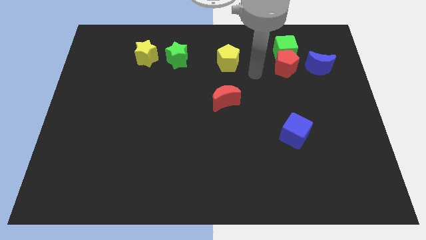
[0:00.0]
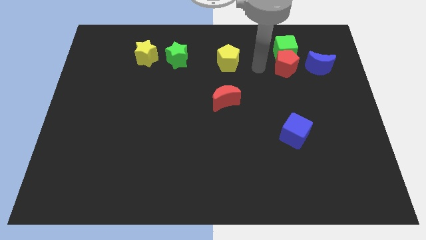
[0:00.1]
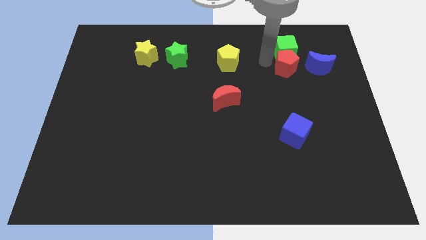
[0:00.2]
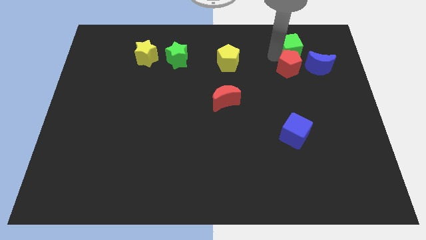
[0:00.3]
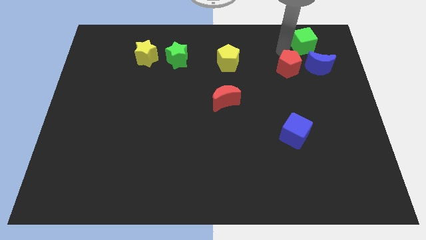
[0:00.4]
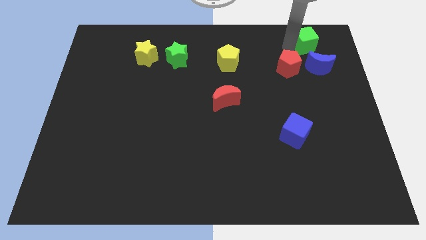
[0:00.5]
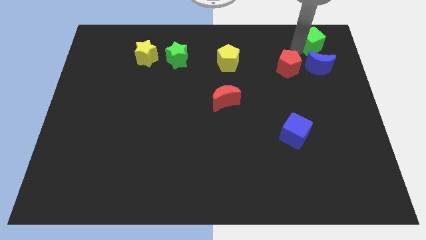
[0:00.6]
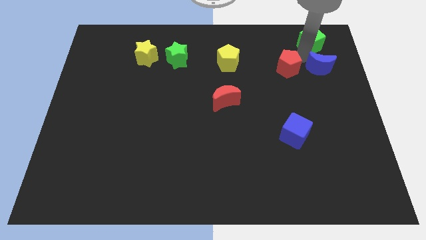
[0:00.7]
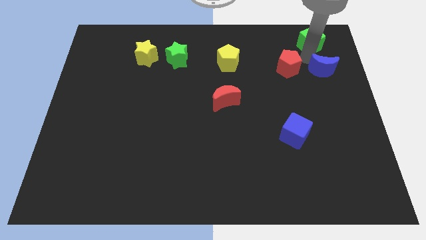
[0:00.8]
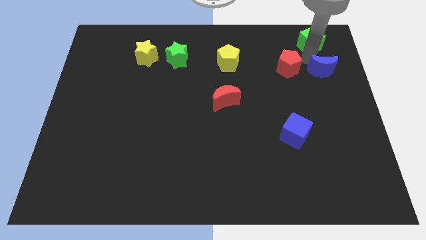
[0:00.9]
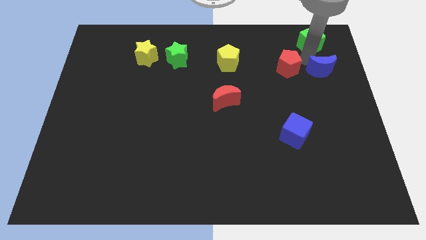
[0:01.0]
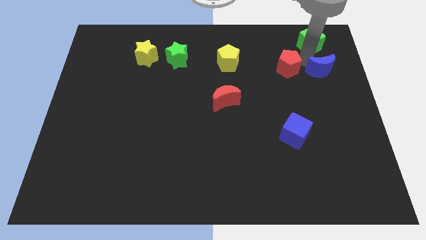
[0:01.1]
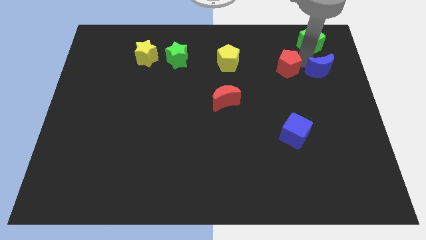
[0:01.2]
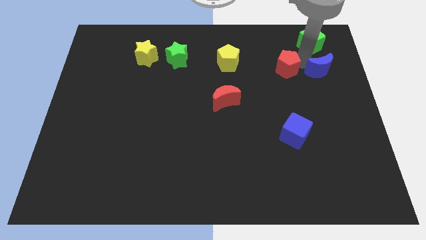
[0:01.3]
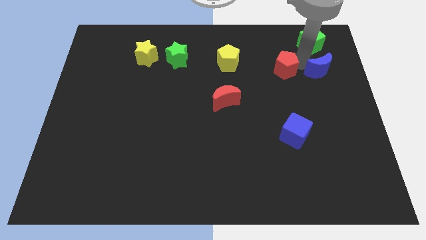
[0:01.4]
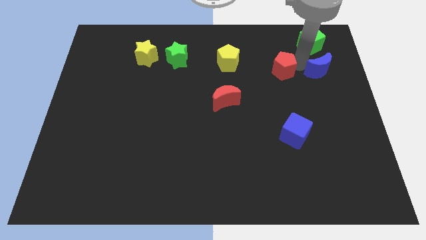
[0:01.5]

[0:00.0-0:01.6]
separate the red pentagon from the green cube and blue moon

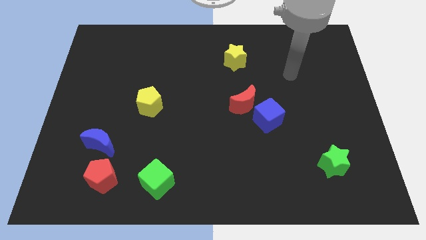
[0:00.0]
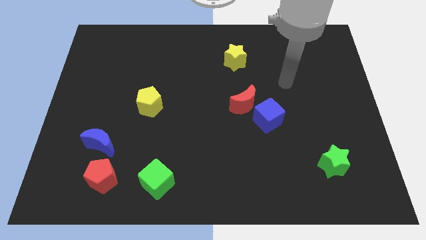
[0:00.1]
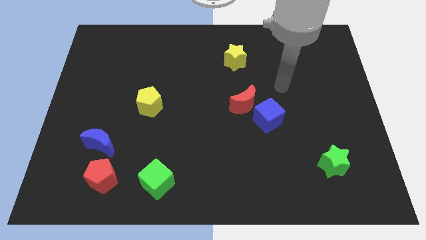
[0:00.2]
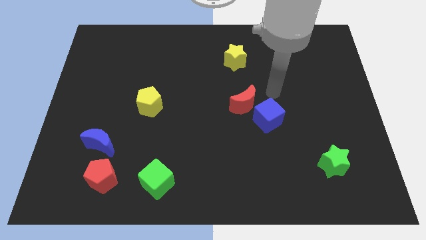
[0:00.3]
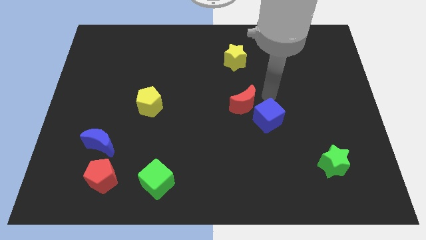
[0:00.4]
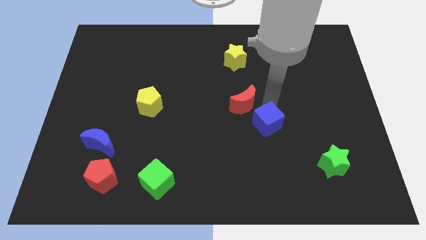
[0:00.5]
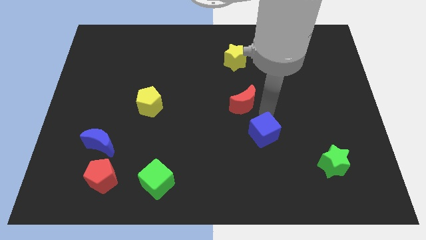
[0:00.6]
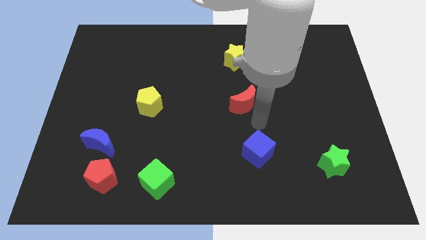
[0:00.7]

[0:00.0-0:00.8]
pull the red moon apart from the blue cube

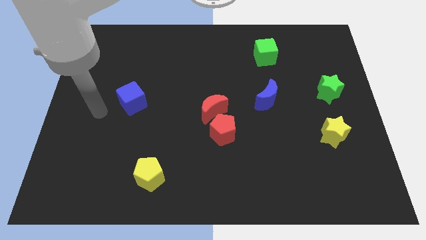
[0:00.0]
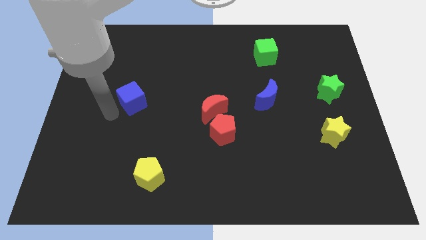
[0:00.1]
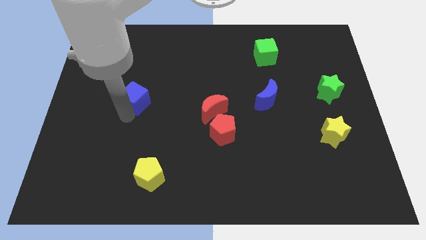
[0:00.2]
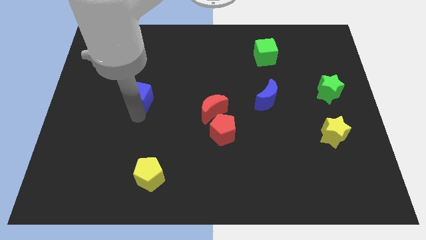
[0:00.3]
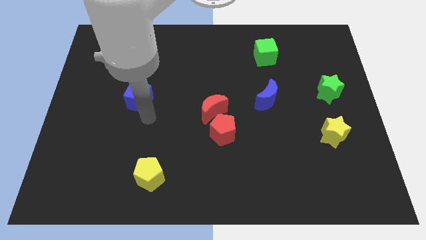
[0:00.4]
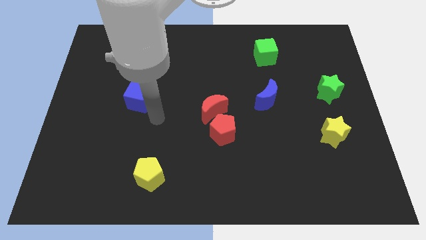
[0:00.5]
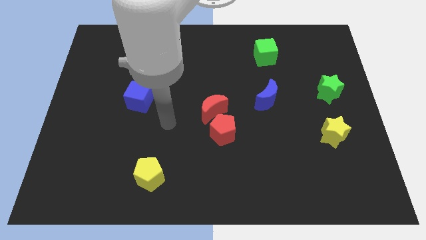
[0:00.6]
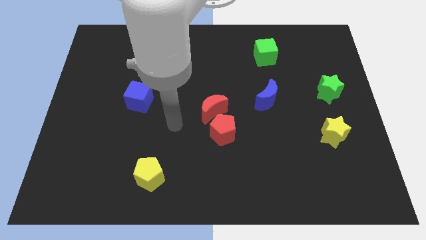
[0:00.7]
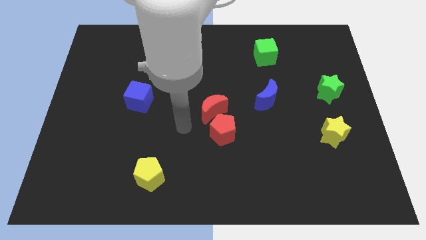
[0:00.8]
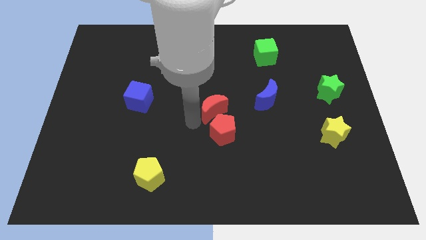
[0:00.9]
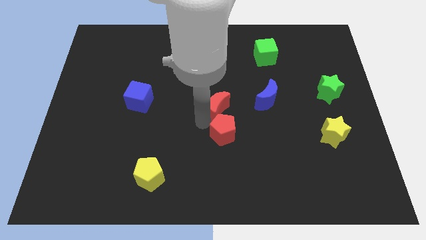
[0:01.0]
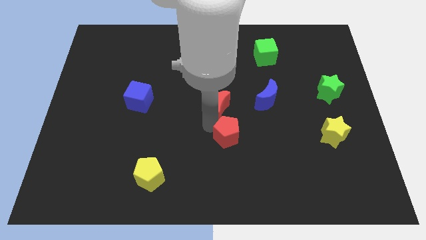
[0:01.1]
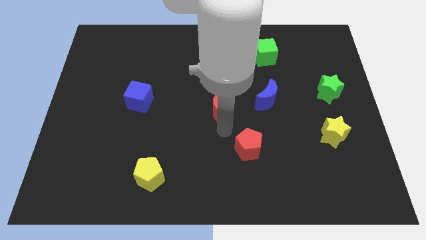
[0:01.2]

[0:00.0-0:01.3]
move the red moon away from the red pentagon

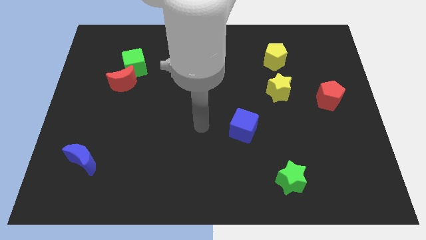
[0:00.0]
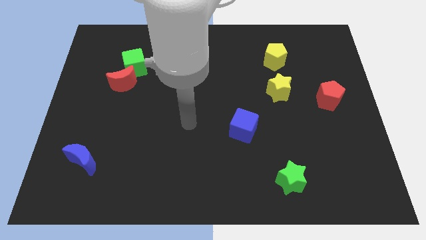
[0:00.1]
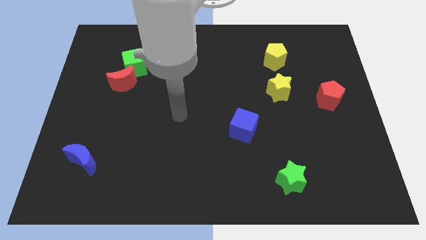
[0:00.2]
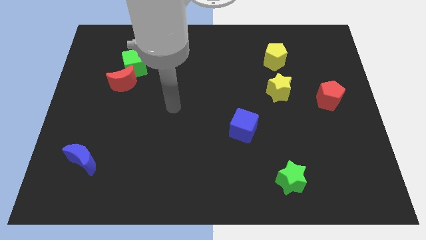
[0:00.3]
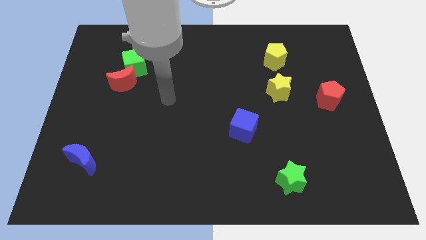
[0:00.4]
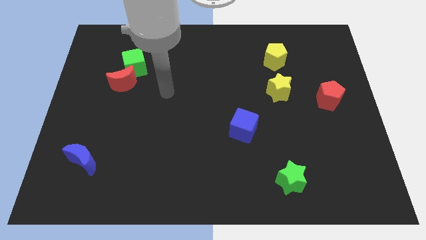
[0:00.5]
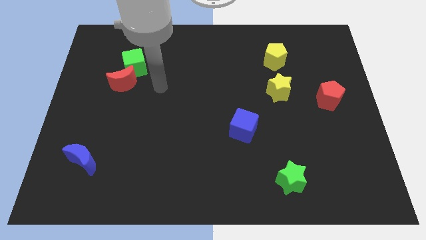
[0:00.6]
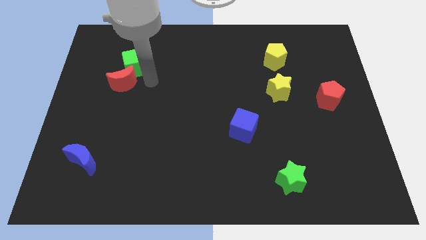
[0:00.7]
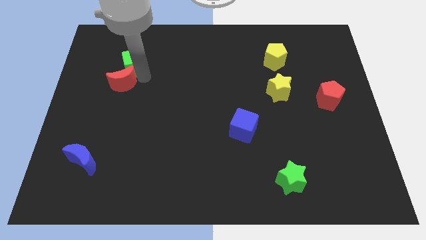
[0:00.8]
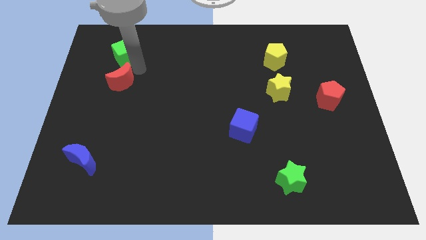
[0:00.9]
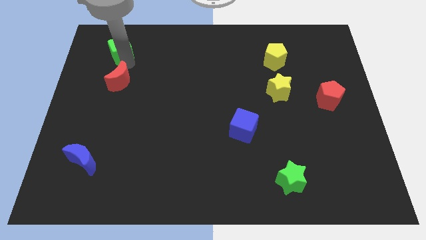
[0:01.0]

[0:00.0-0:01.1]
pull the red moon apart from the green cube

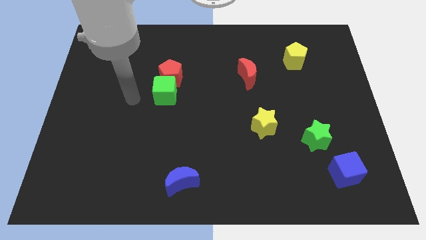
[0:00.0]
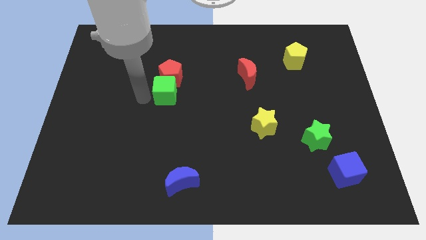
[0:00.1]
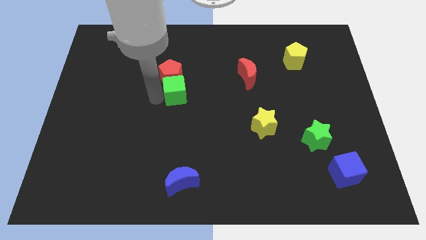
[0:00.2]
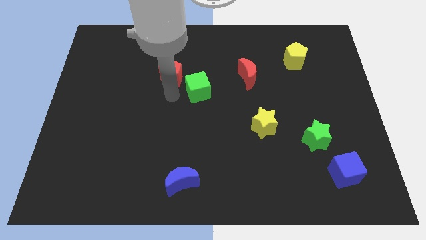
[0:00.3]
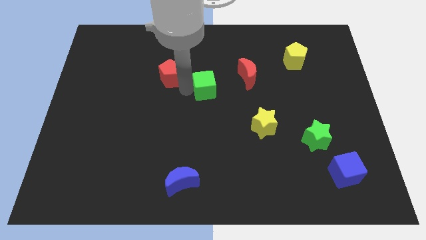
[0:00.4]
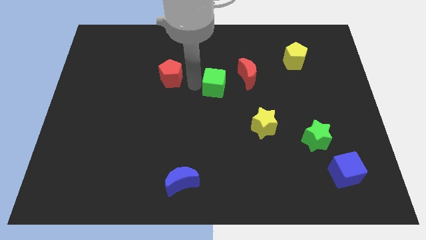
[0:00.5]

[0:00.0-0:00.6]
separate the red pentagon from the green cube

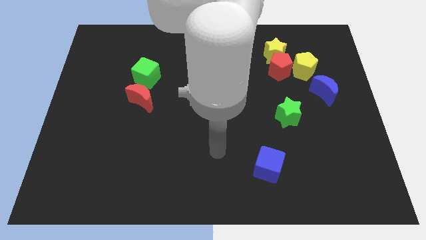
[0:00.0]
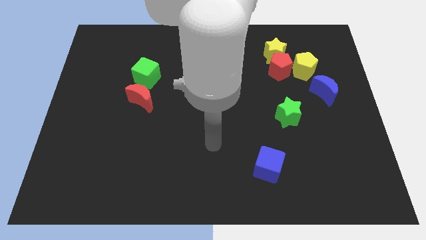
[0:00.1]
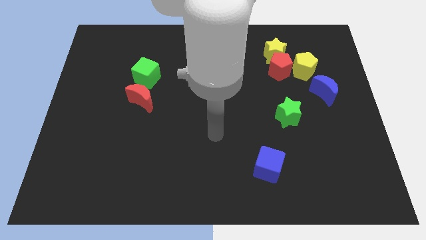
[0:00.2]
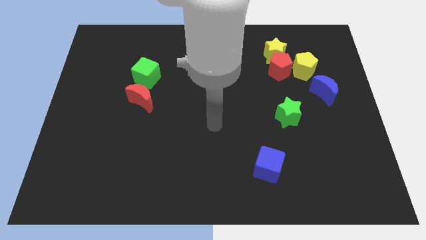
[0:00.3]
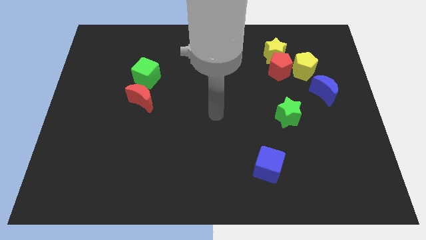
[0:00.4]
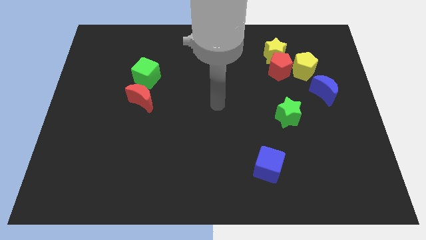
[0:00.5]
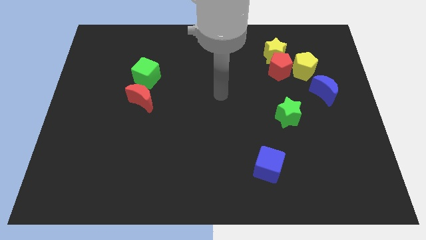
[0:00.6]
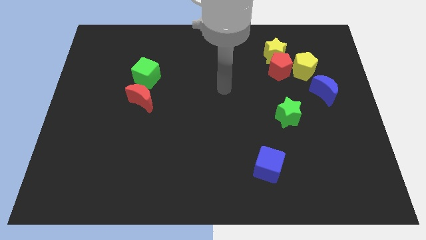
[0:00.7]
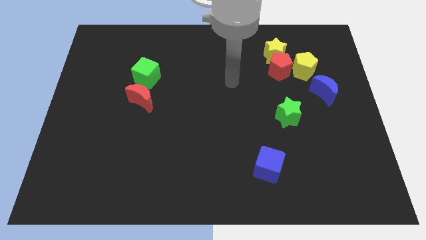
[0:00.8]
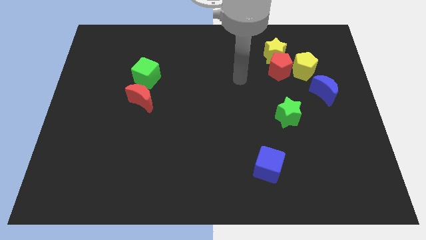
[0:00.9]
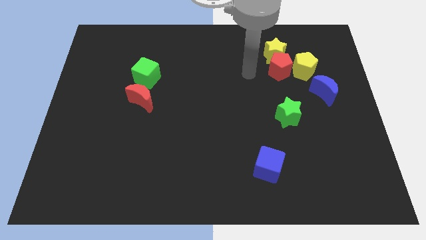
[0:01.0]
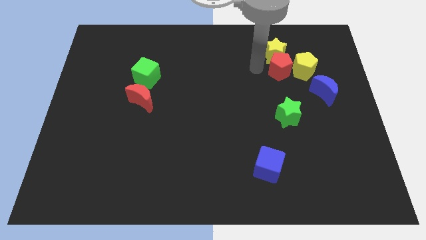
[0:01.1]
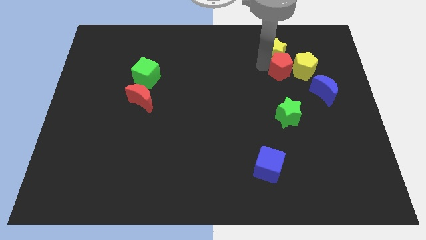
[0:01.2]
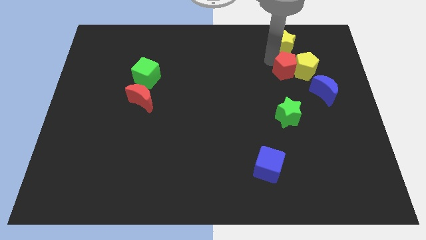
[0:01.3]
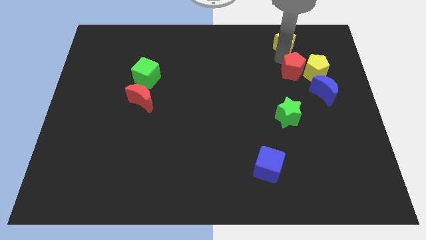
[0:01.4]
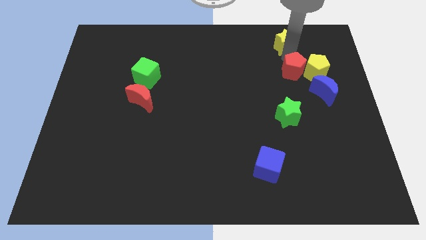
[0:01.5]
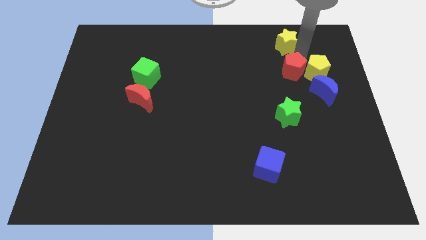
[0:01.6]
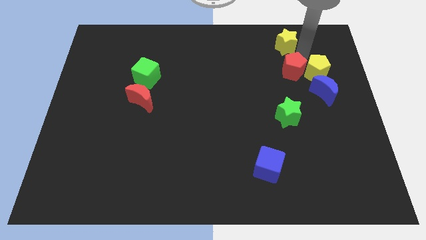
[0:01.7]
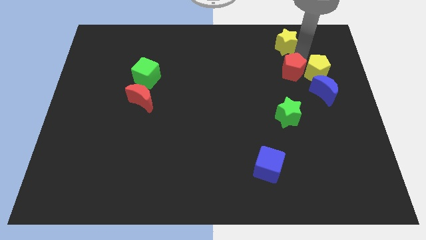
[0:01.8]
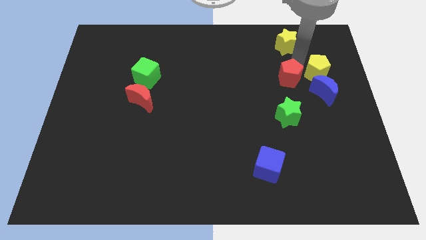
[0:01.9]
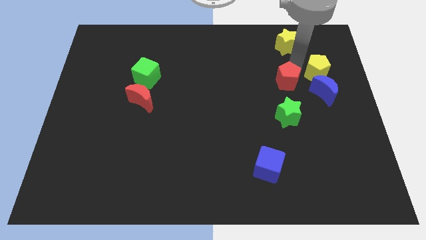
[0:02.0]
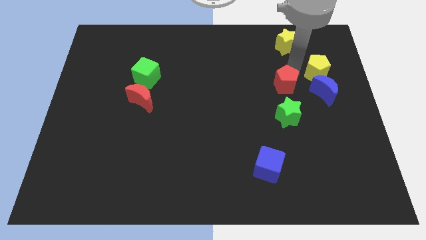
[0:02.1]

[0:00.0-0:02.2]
separate the red pentagon from the yellow star and yellow pentagon

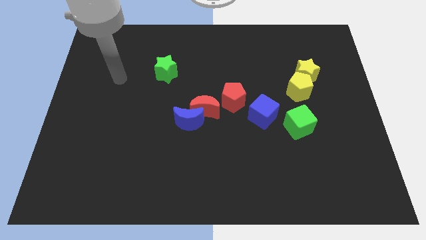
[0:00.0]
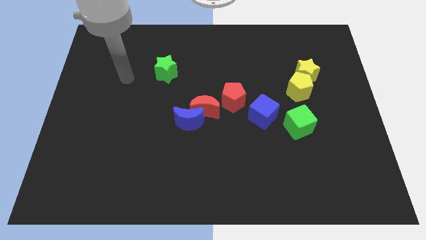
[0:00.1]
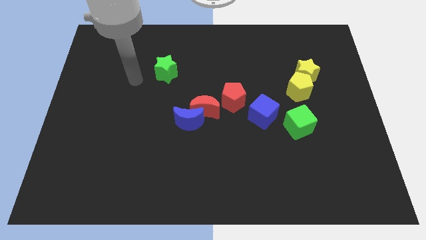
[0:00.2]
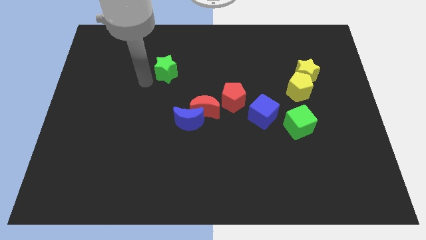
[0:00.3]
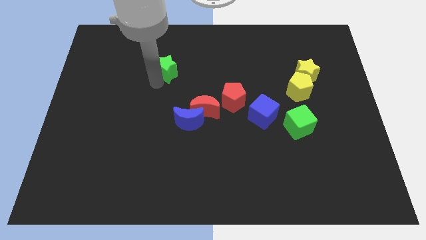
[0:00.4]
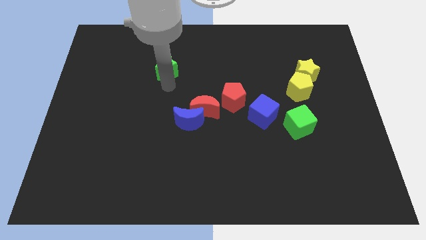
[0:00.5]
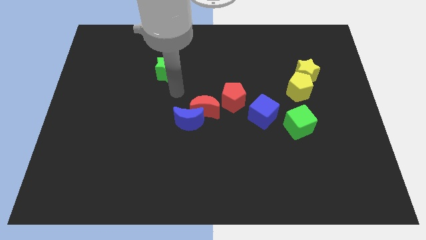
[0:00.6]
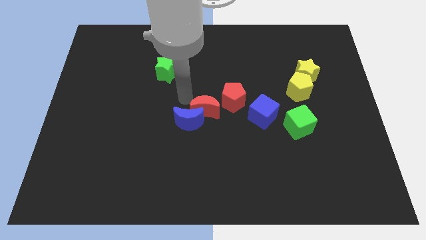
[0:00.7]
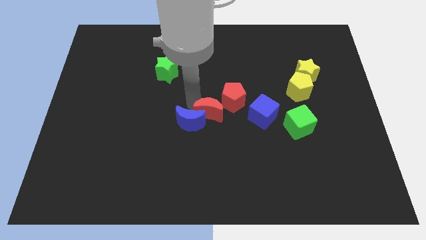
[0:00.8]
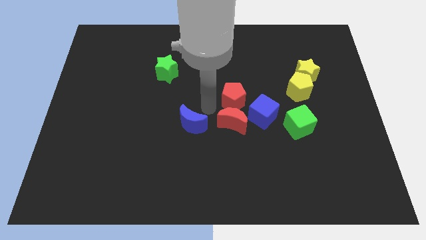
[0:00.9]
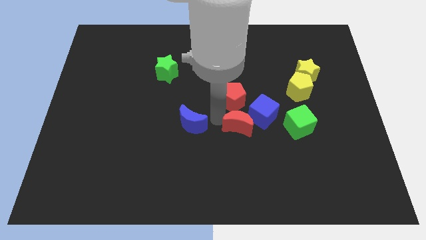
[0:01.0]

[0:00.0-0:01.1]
pull the blue moon apart from the red moon

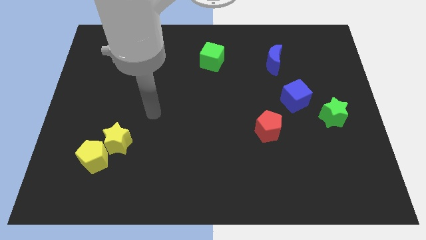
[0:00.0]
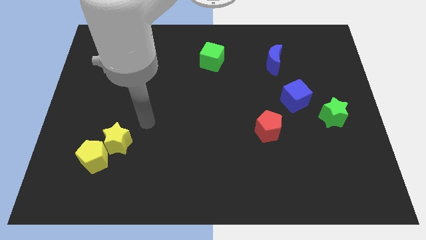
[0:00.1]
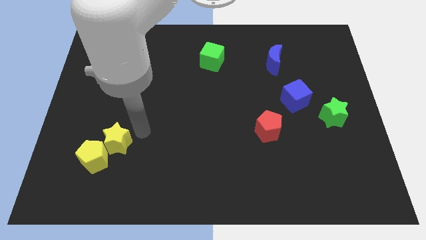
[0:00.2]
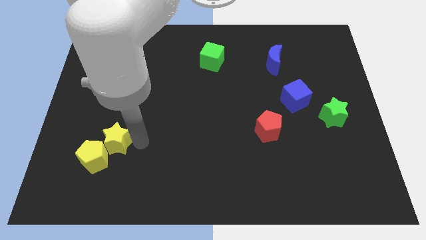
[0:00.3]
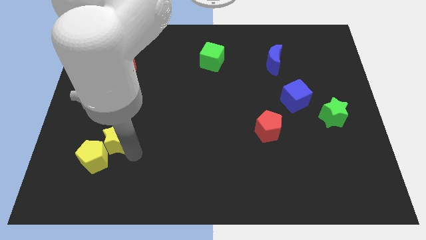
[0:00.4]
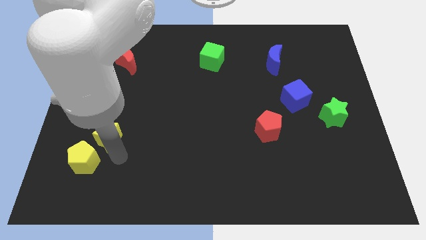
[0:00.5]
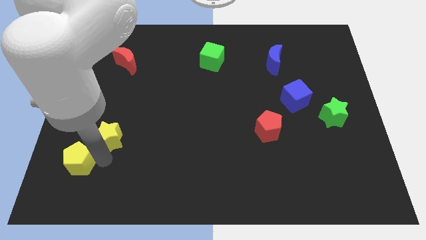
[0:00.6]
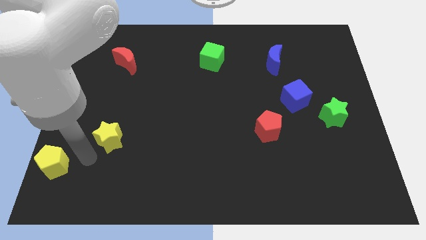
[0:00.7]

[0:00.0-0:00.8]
separate the yellow star from the yellow pentagon
